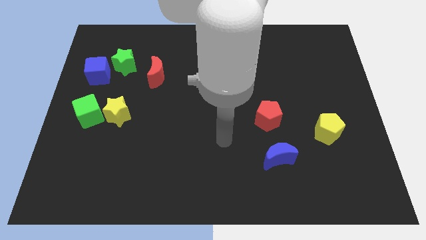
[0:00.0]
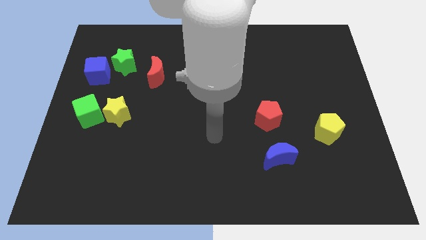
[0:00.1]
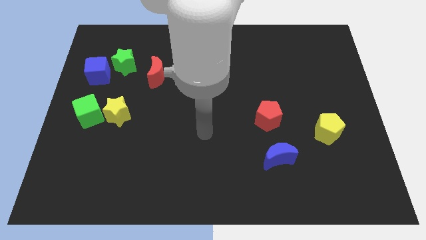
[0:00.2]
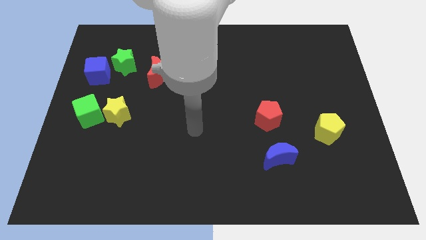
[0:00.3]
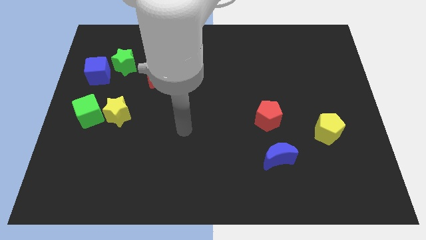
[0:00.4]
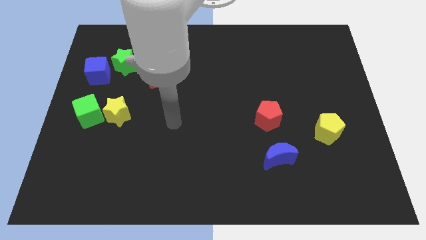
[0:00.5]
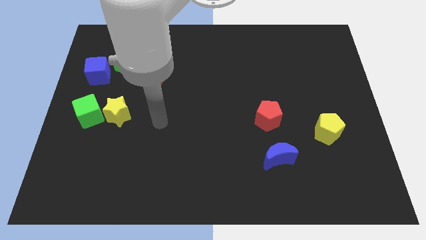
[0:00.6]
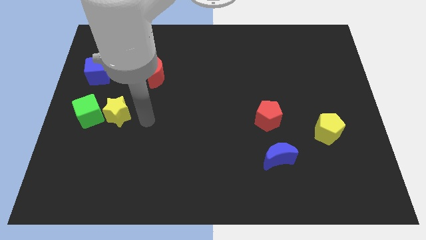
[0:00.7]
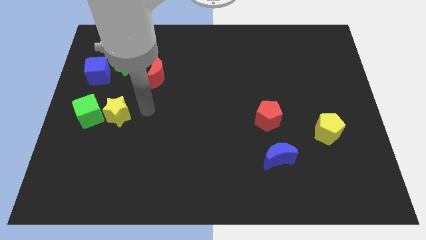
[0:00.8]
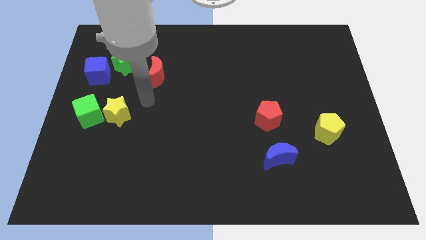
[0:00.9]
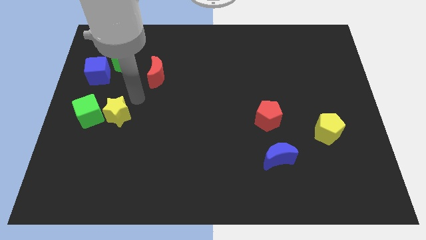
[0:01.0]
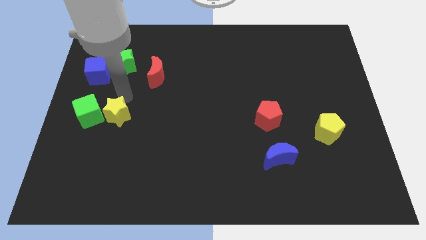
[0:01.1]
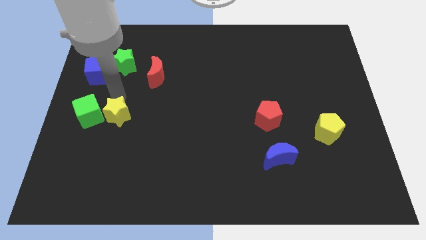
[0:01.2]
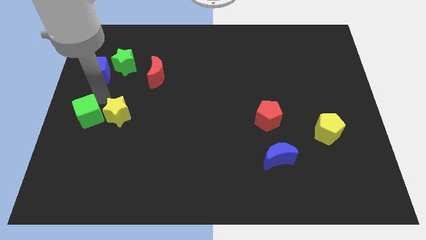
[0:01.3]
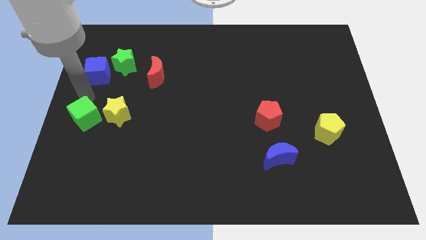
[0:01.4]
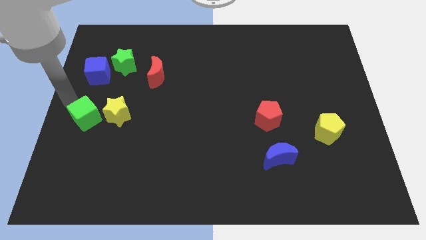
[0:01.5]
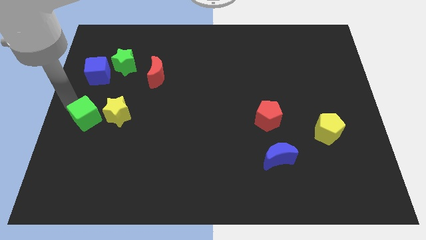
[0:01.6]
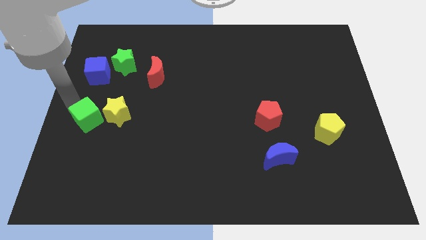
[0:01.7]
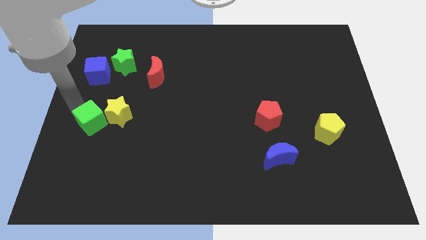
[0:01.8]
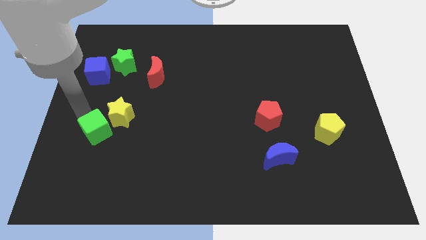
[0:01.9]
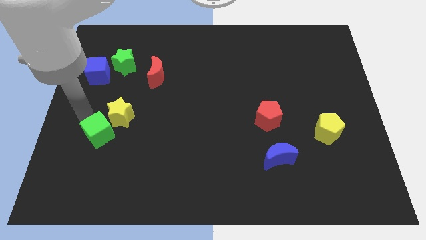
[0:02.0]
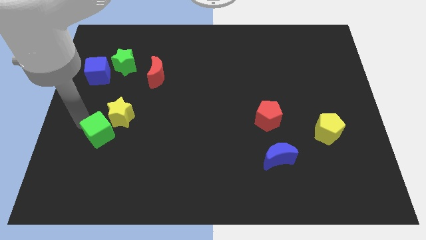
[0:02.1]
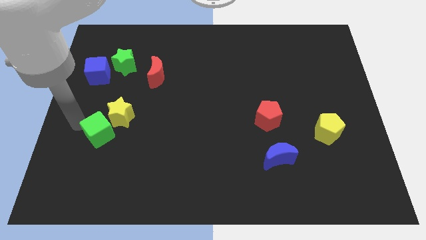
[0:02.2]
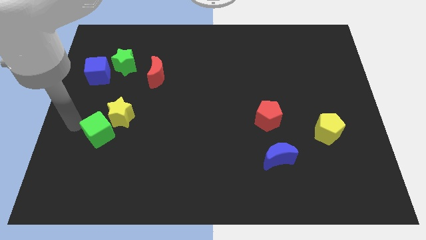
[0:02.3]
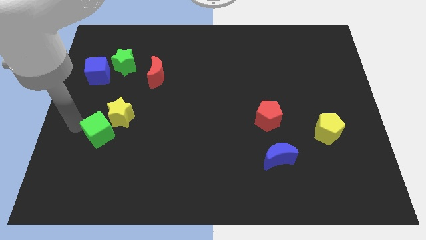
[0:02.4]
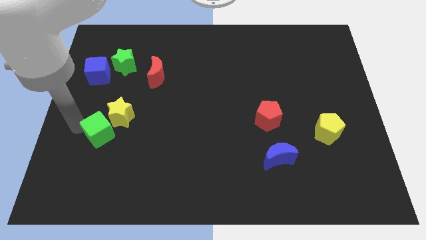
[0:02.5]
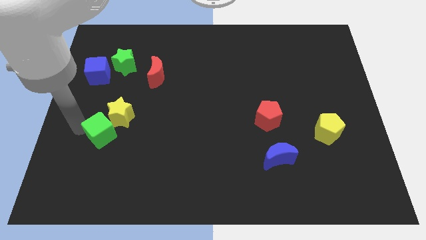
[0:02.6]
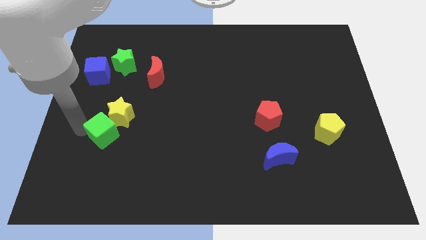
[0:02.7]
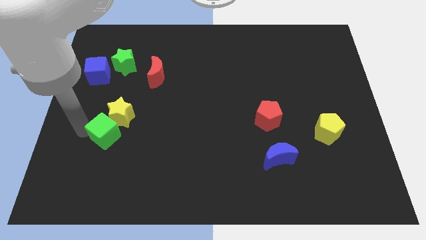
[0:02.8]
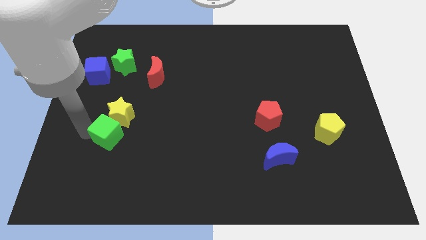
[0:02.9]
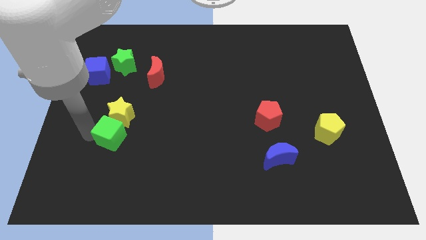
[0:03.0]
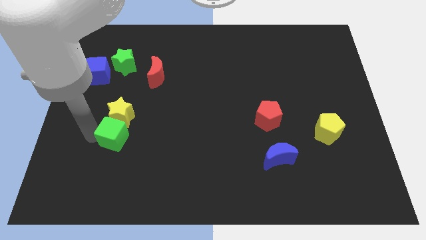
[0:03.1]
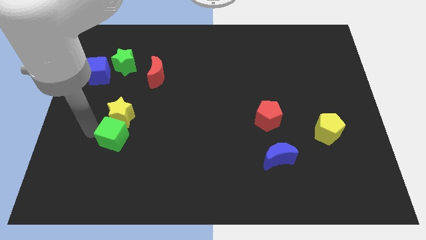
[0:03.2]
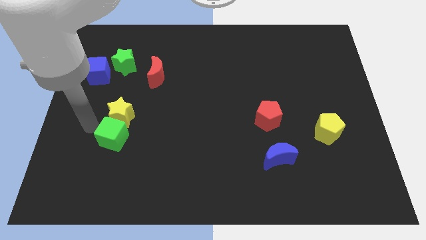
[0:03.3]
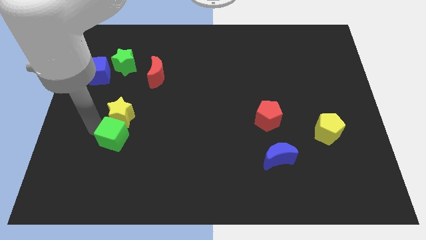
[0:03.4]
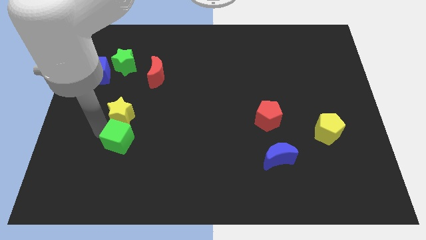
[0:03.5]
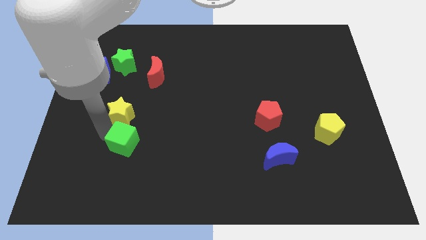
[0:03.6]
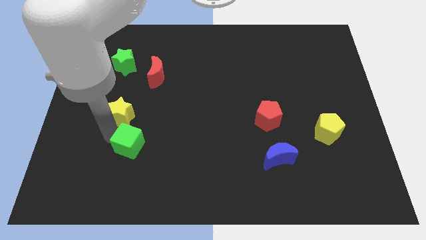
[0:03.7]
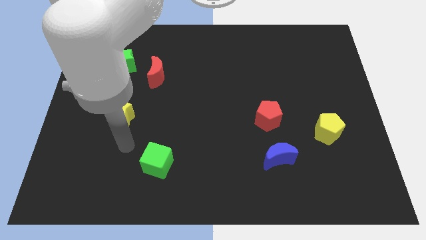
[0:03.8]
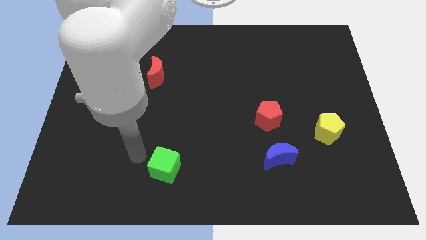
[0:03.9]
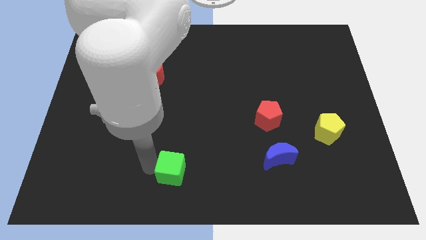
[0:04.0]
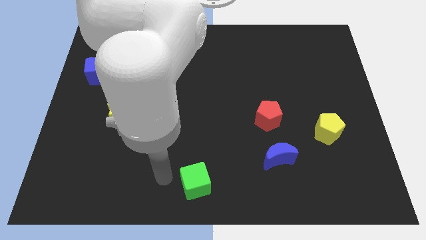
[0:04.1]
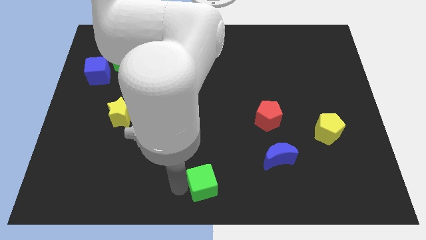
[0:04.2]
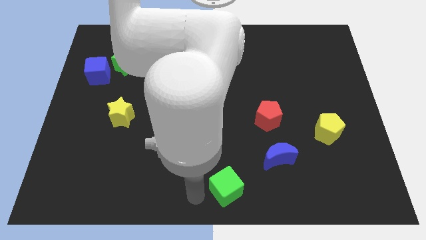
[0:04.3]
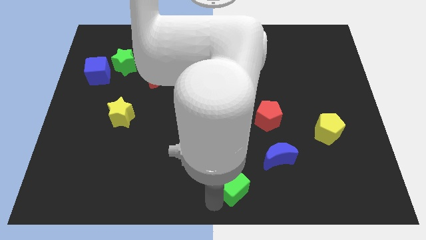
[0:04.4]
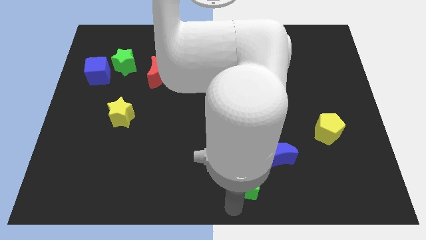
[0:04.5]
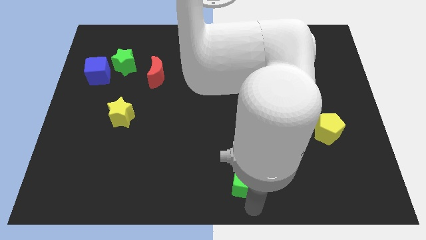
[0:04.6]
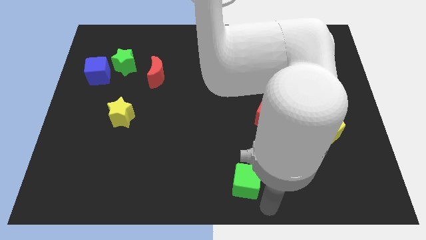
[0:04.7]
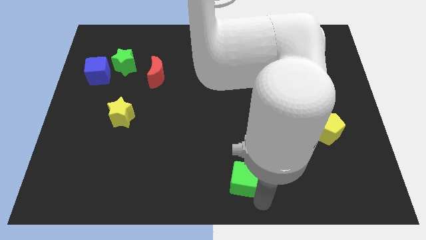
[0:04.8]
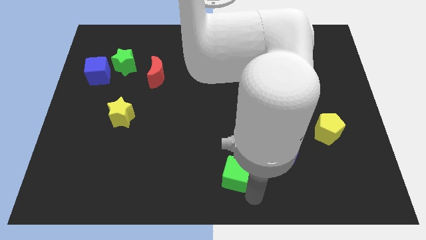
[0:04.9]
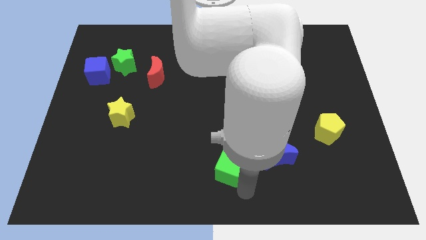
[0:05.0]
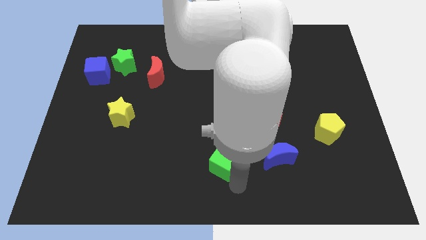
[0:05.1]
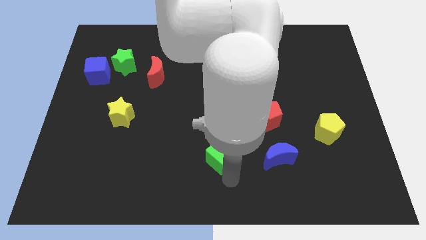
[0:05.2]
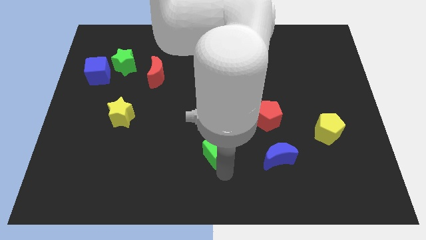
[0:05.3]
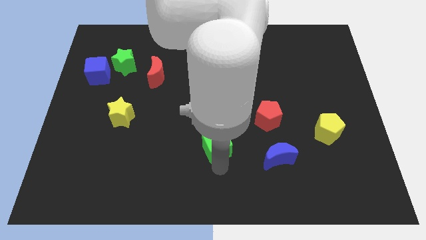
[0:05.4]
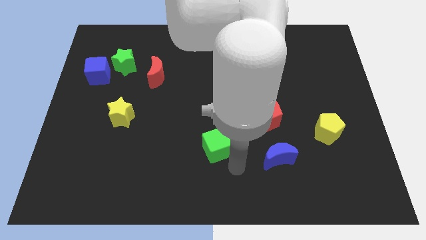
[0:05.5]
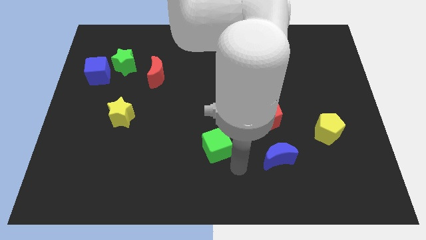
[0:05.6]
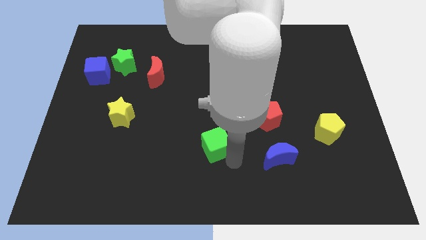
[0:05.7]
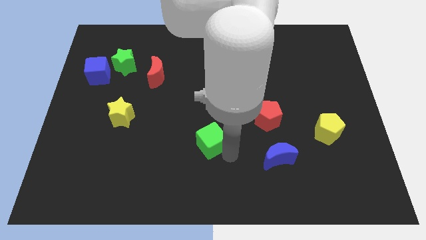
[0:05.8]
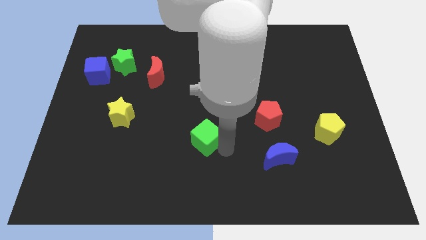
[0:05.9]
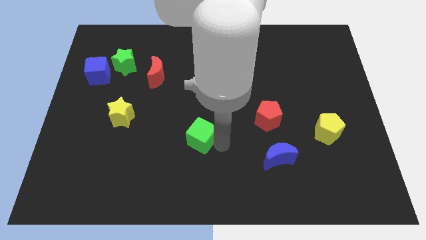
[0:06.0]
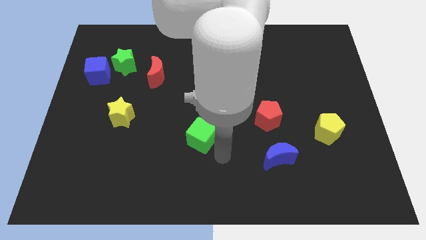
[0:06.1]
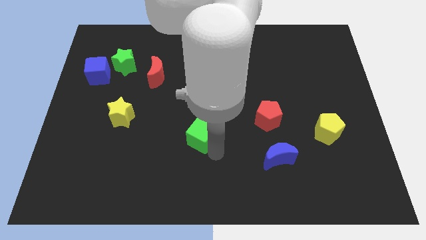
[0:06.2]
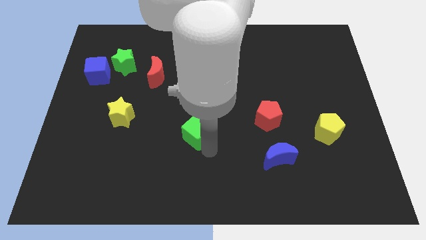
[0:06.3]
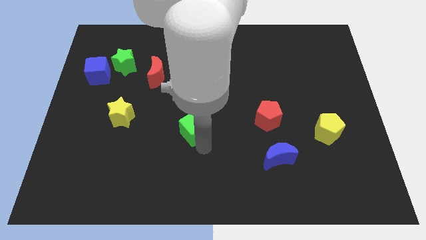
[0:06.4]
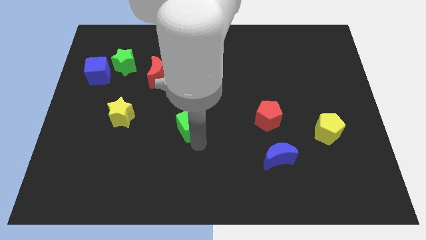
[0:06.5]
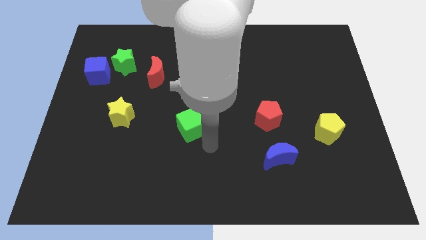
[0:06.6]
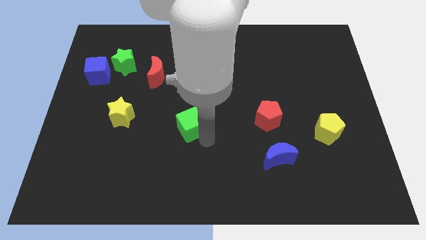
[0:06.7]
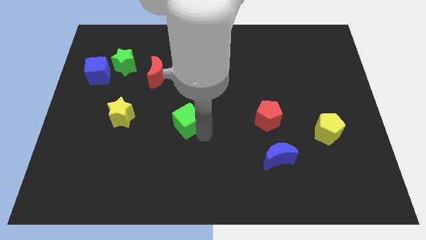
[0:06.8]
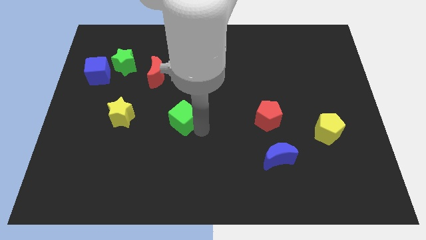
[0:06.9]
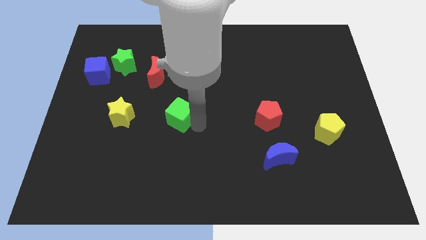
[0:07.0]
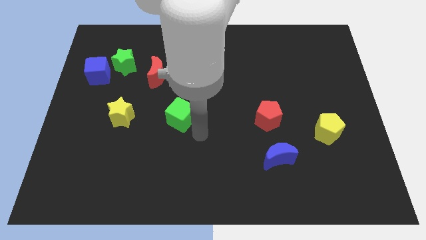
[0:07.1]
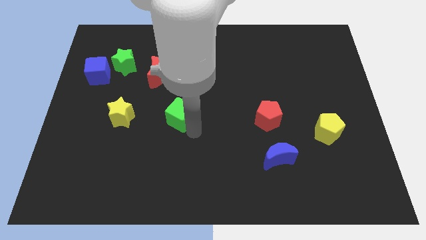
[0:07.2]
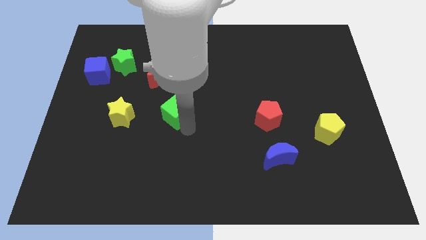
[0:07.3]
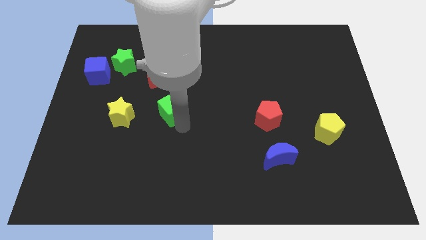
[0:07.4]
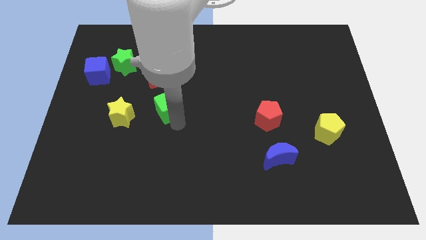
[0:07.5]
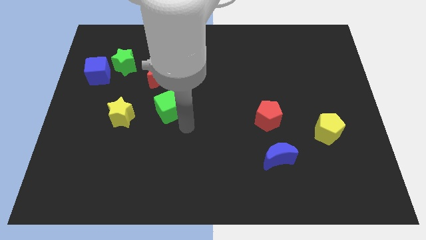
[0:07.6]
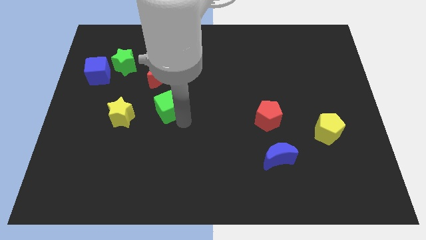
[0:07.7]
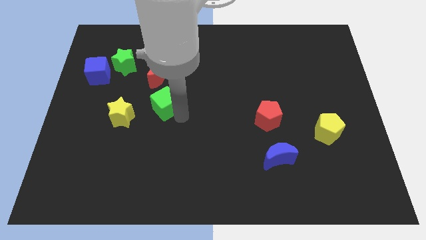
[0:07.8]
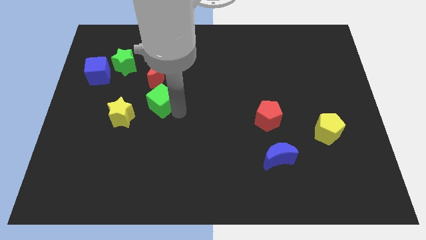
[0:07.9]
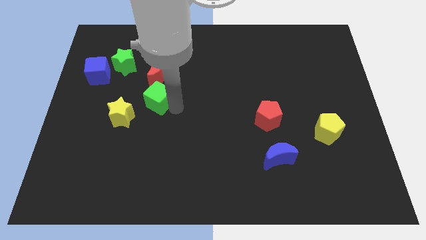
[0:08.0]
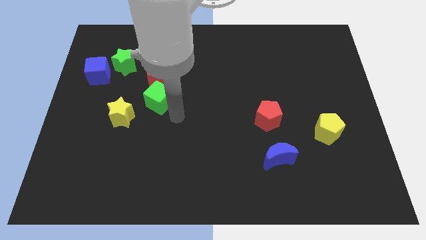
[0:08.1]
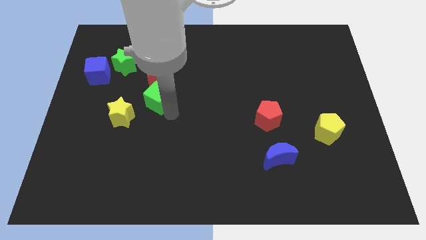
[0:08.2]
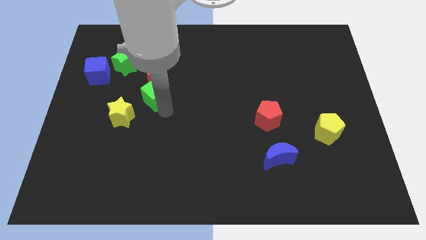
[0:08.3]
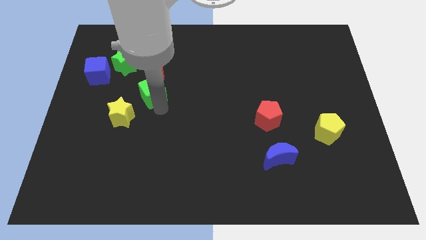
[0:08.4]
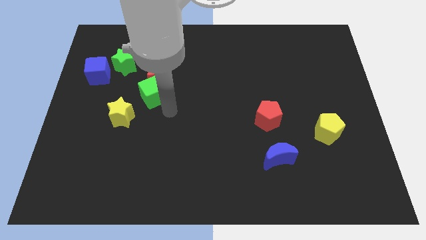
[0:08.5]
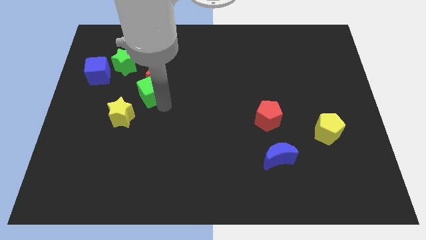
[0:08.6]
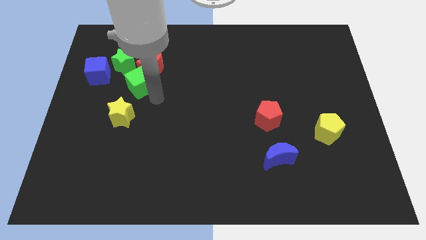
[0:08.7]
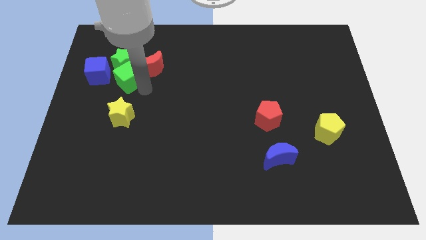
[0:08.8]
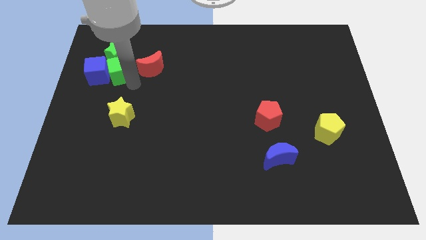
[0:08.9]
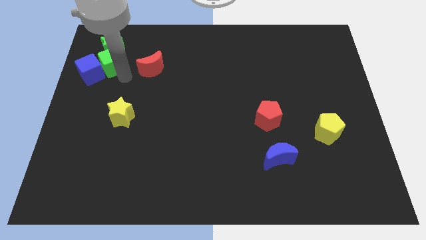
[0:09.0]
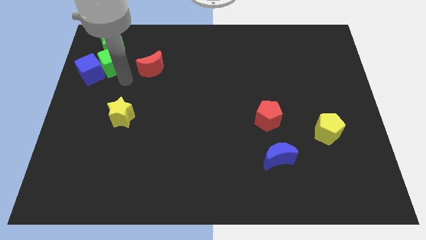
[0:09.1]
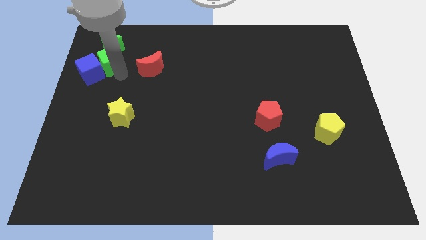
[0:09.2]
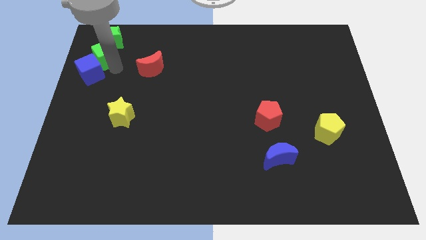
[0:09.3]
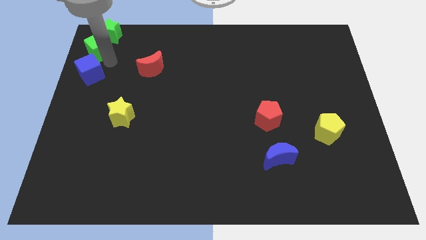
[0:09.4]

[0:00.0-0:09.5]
slide the green cube to the upper left corner
